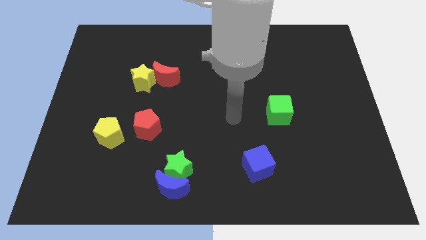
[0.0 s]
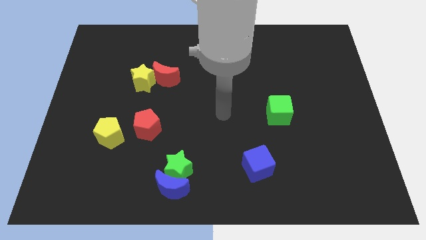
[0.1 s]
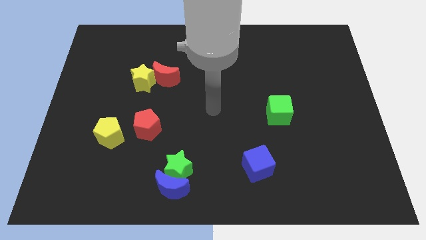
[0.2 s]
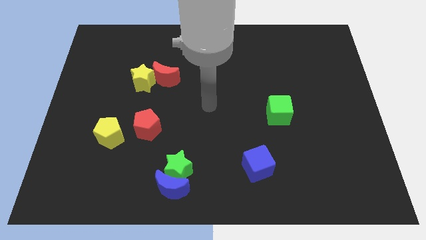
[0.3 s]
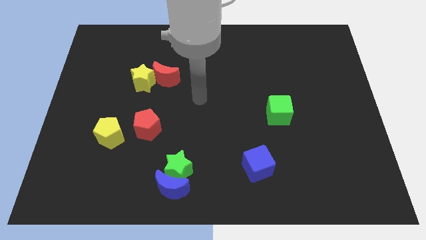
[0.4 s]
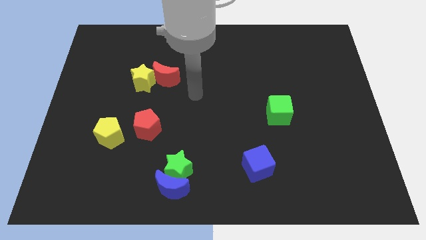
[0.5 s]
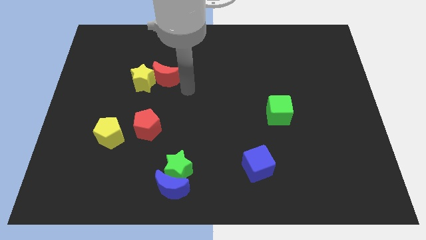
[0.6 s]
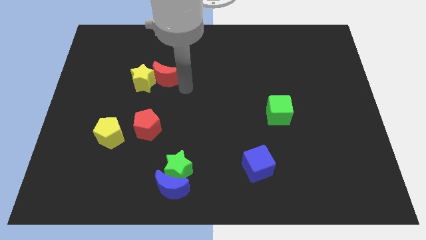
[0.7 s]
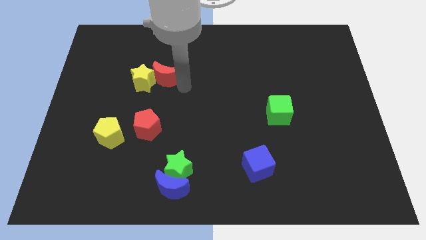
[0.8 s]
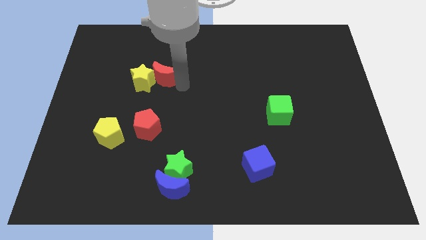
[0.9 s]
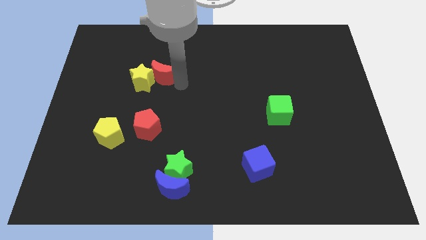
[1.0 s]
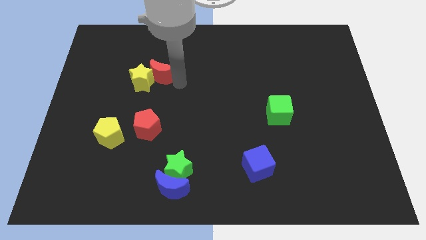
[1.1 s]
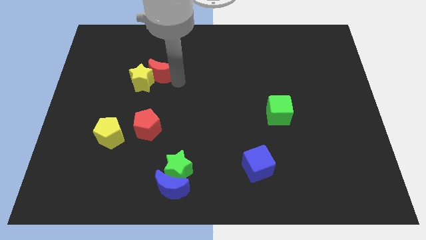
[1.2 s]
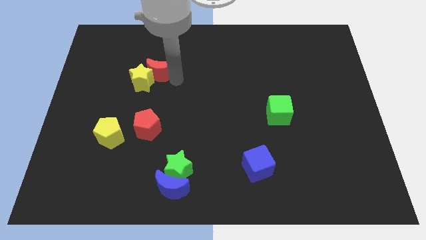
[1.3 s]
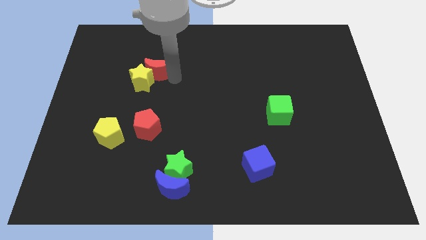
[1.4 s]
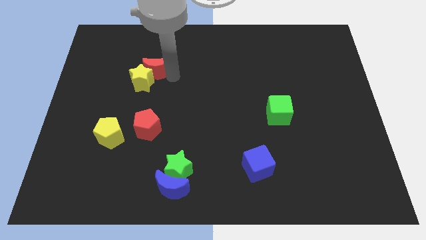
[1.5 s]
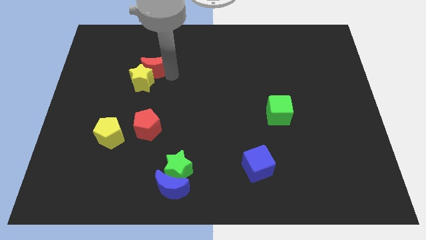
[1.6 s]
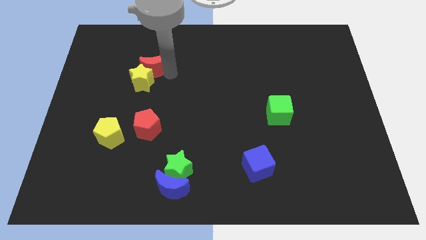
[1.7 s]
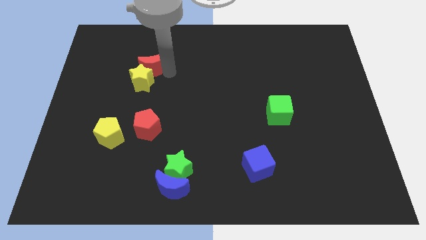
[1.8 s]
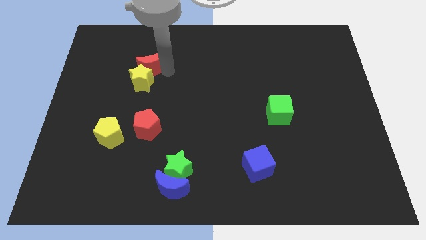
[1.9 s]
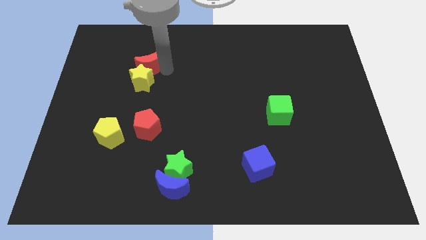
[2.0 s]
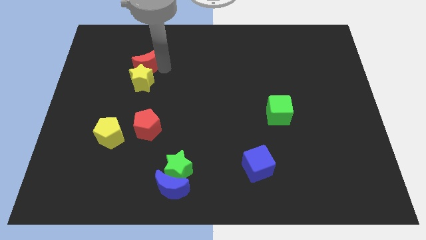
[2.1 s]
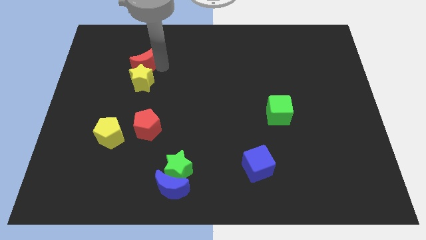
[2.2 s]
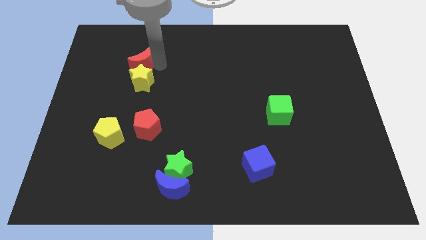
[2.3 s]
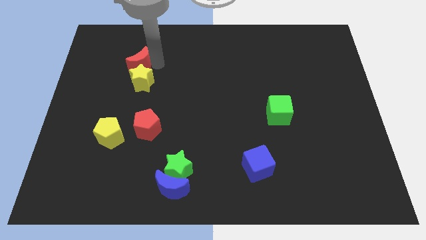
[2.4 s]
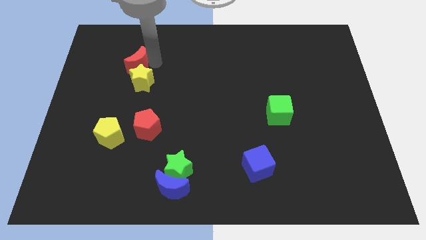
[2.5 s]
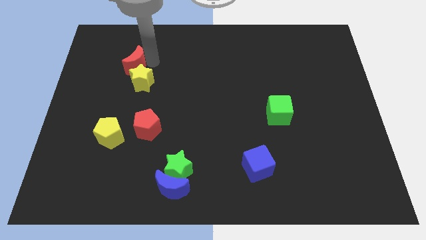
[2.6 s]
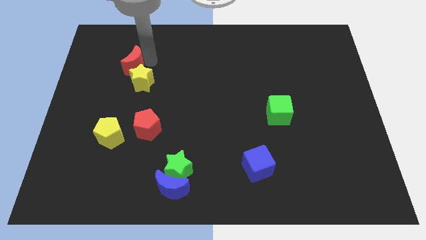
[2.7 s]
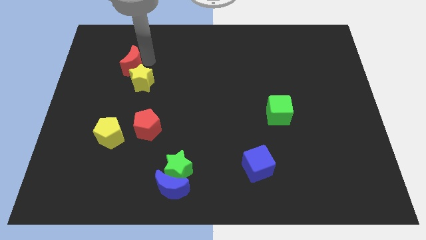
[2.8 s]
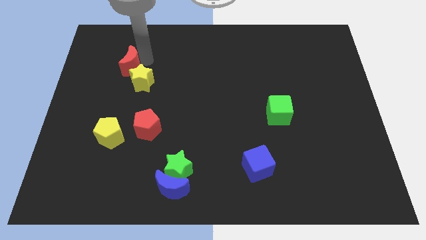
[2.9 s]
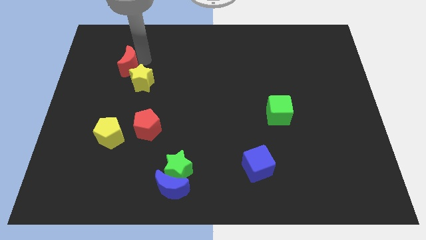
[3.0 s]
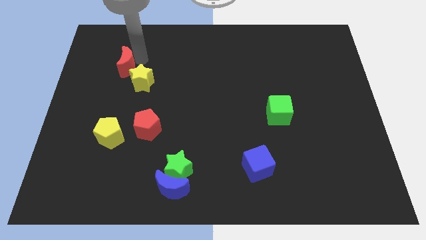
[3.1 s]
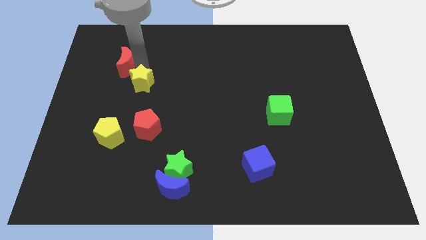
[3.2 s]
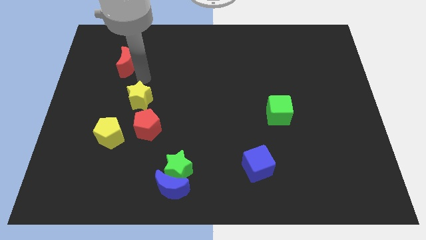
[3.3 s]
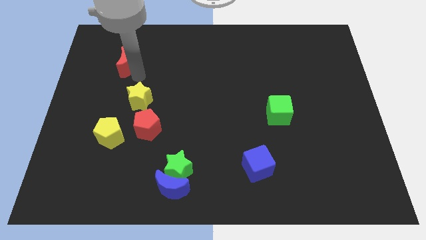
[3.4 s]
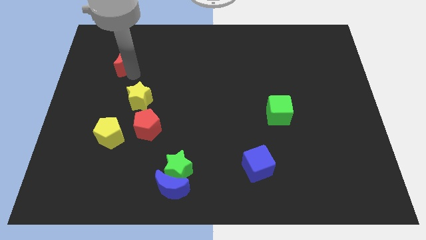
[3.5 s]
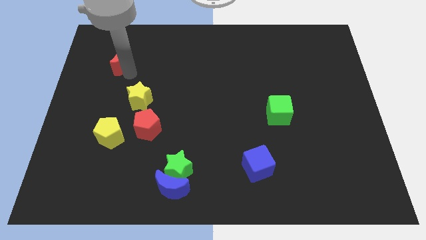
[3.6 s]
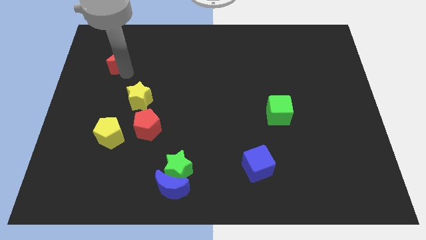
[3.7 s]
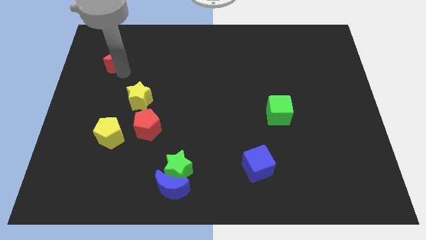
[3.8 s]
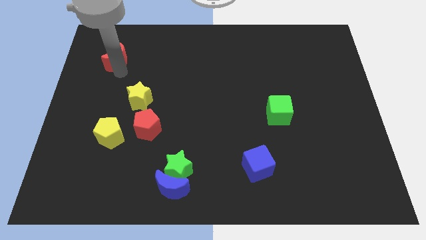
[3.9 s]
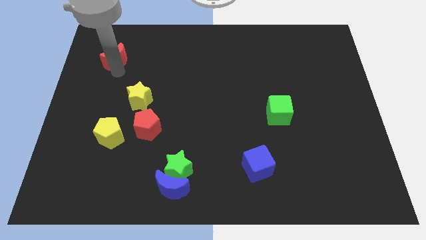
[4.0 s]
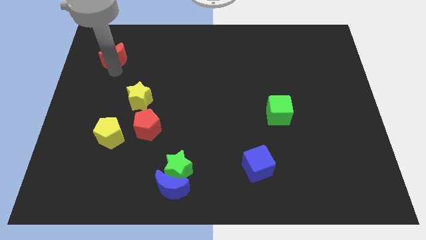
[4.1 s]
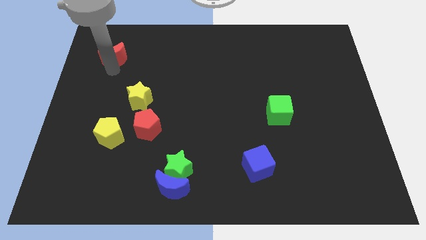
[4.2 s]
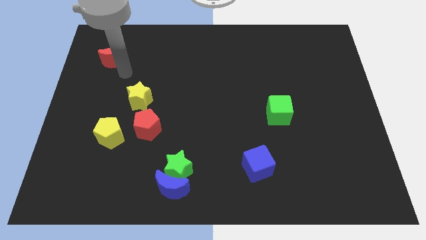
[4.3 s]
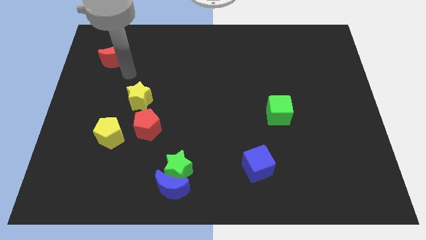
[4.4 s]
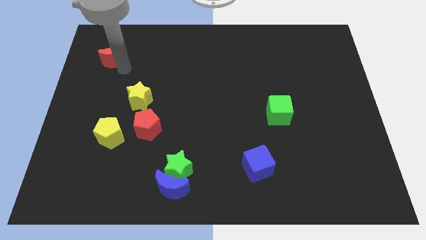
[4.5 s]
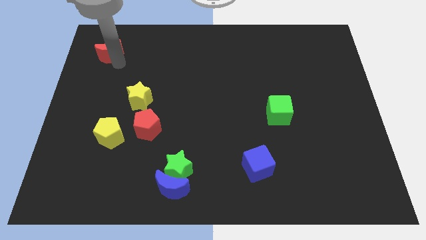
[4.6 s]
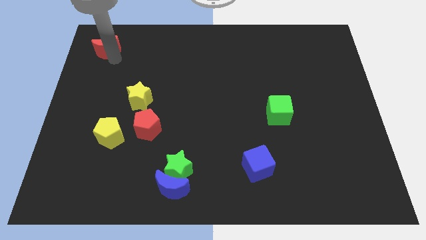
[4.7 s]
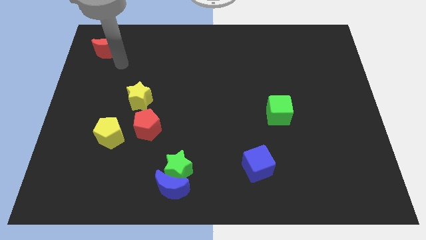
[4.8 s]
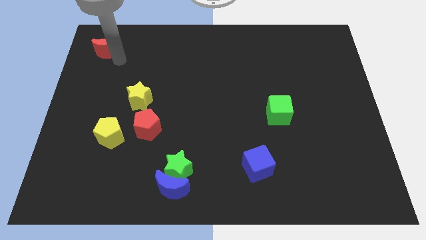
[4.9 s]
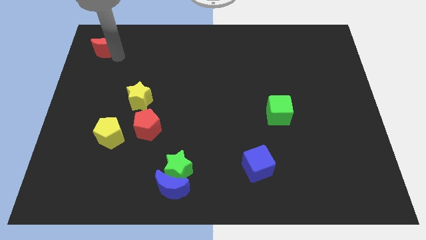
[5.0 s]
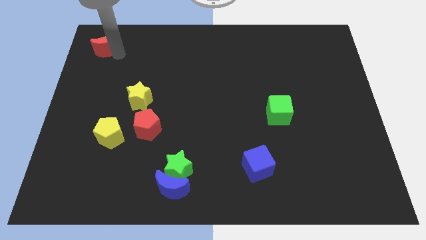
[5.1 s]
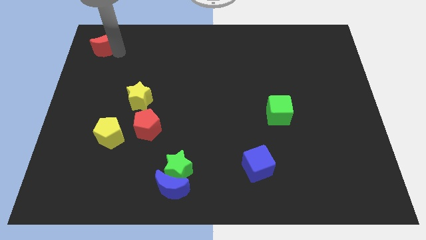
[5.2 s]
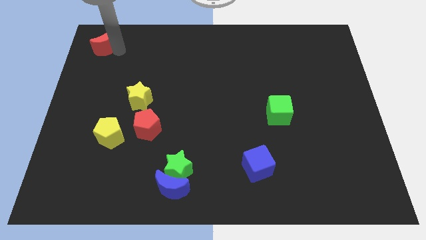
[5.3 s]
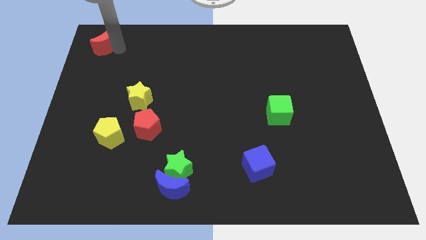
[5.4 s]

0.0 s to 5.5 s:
put the red moon to the top left corner

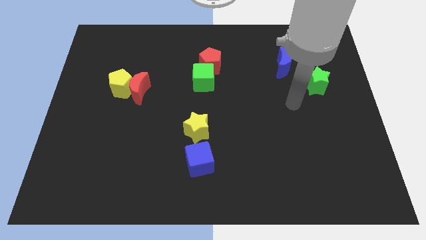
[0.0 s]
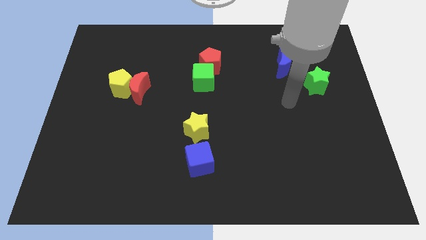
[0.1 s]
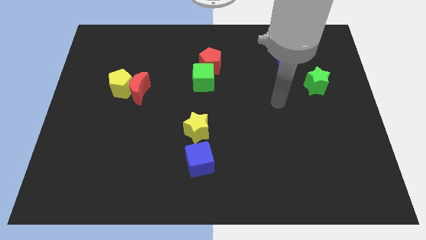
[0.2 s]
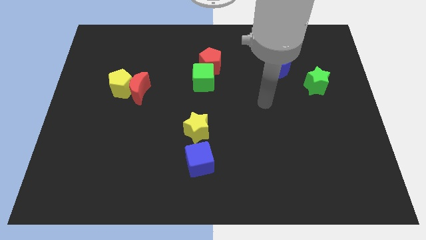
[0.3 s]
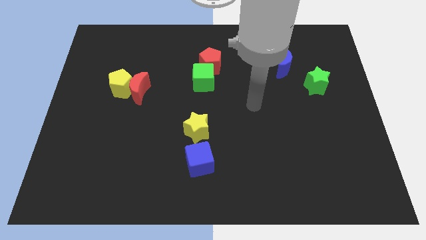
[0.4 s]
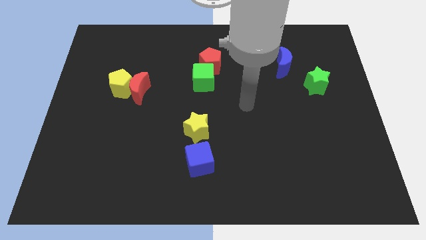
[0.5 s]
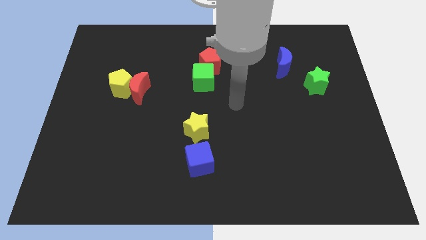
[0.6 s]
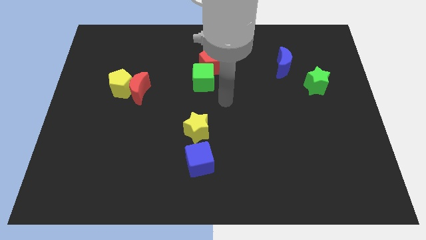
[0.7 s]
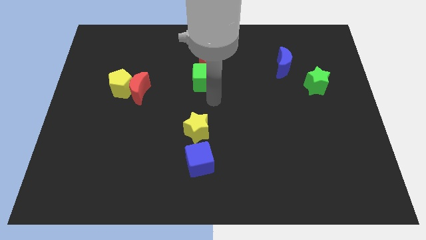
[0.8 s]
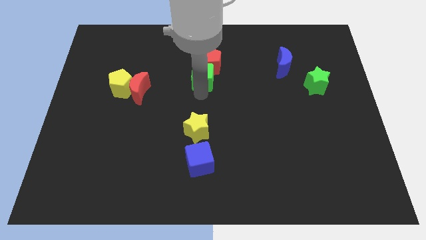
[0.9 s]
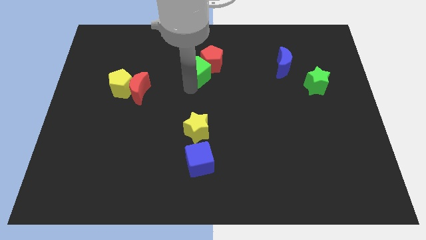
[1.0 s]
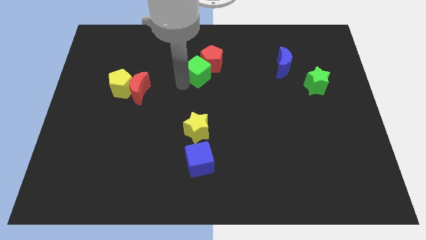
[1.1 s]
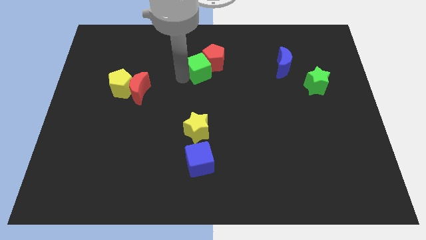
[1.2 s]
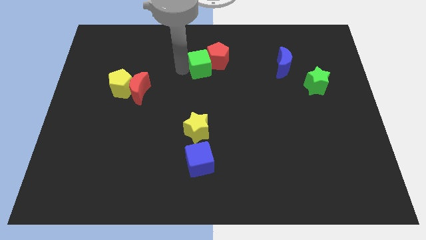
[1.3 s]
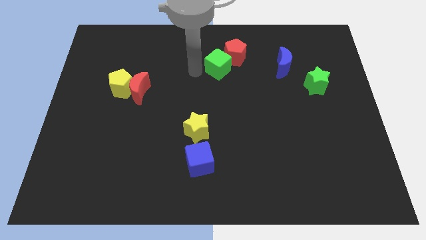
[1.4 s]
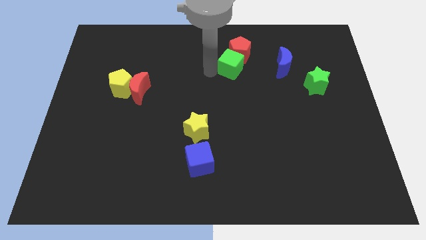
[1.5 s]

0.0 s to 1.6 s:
push the red pentagon to the top
